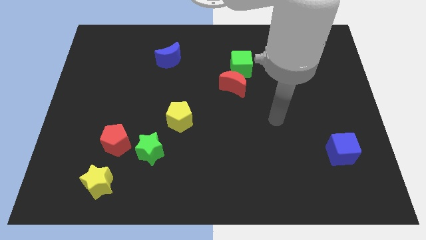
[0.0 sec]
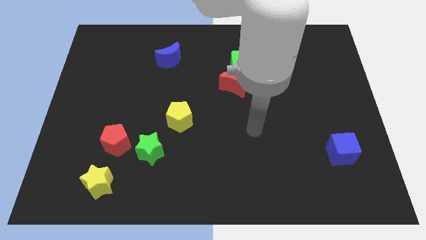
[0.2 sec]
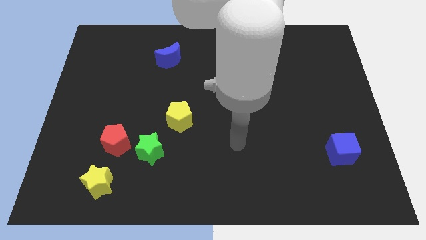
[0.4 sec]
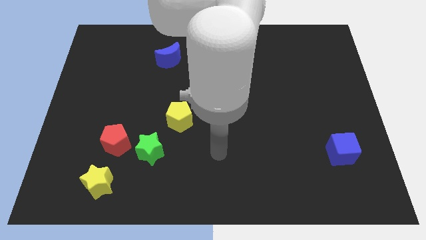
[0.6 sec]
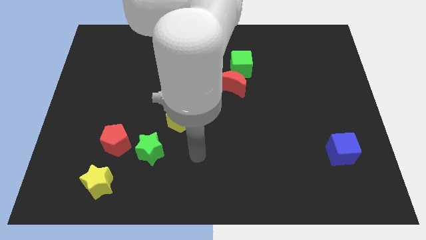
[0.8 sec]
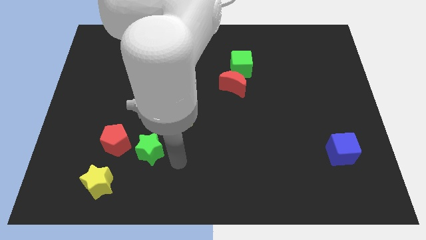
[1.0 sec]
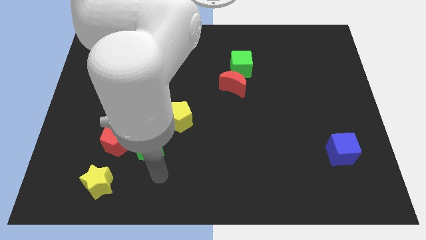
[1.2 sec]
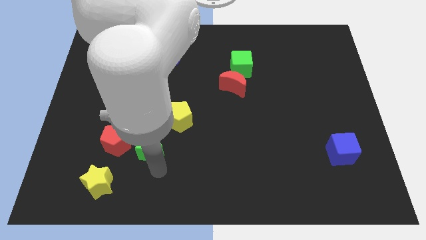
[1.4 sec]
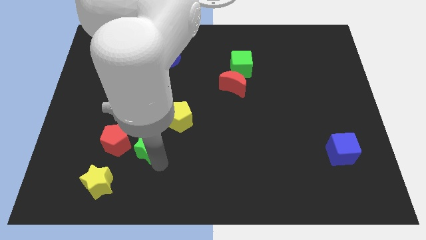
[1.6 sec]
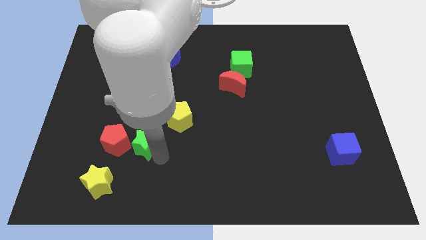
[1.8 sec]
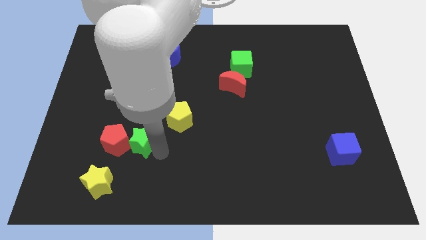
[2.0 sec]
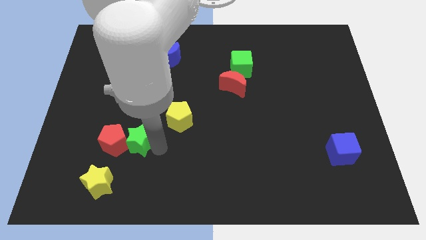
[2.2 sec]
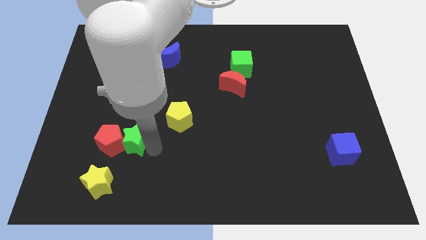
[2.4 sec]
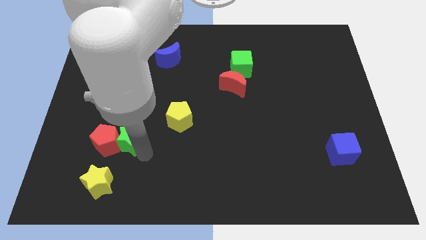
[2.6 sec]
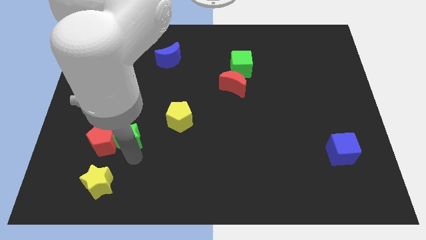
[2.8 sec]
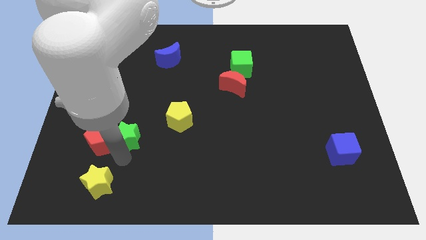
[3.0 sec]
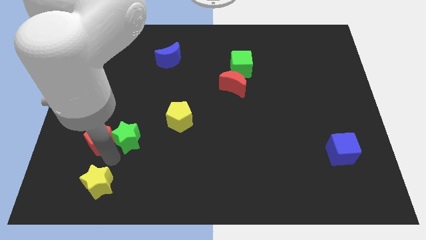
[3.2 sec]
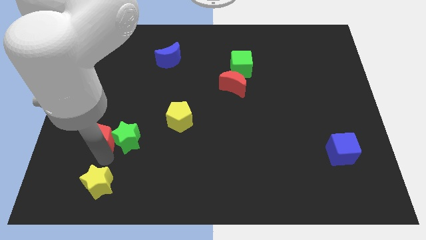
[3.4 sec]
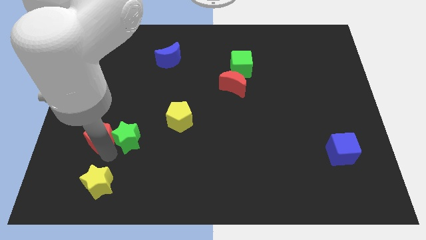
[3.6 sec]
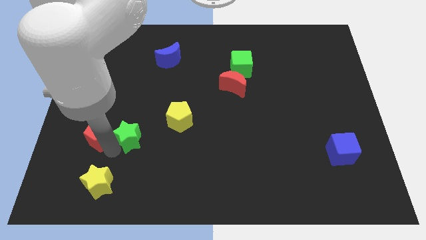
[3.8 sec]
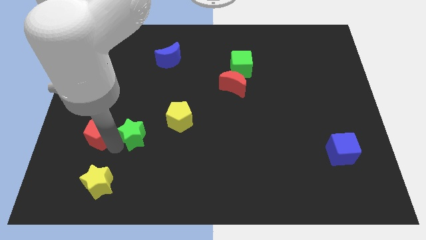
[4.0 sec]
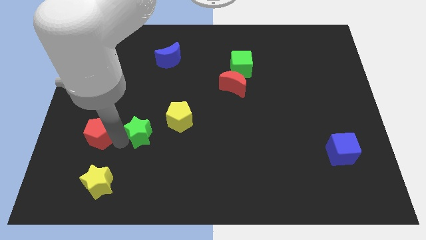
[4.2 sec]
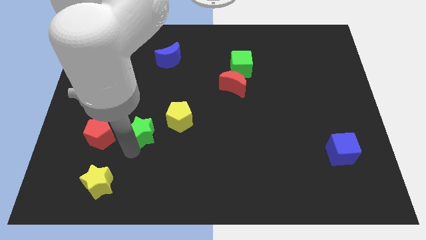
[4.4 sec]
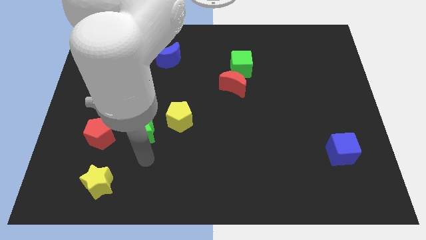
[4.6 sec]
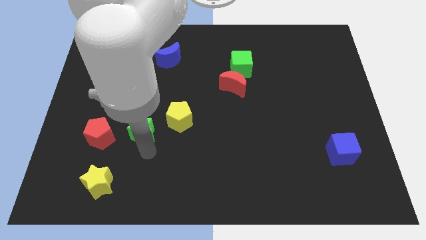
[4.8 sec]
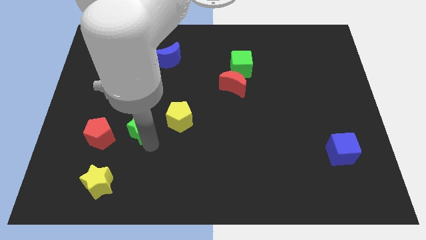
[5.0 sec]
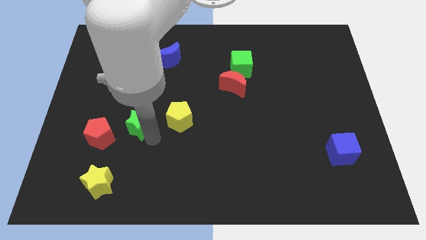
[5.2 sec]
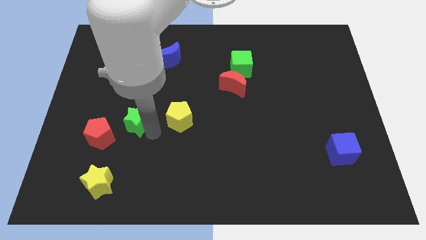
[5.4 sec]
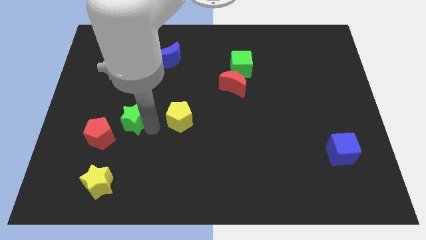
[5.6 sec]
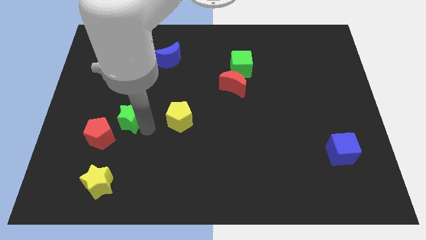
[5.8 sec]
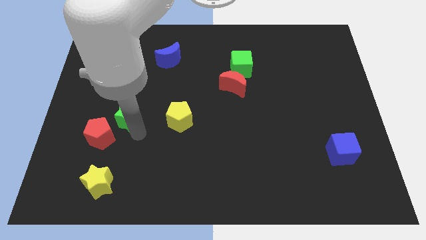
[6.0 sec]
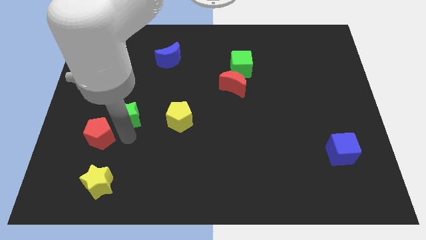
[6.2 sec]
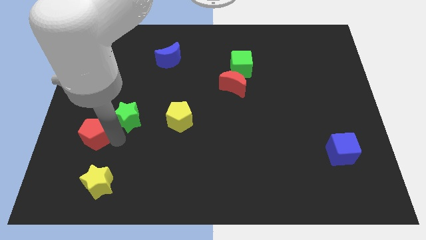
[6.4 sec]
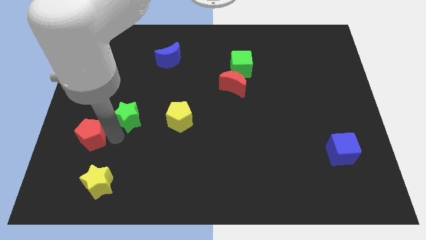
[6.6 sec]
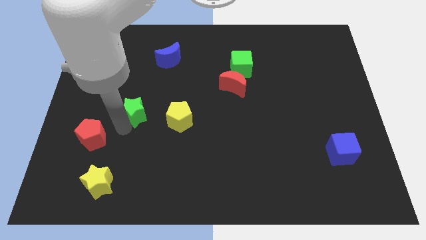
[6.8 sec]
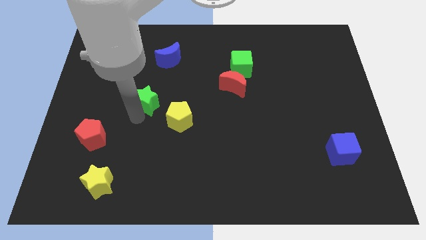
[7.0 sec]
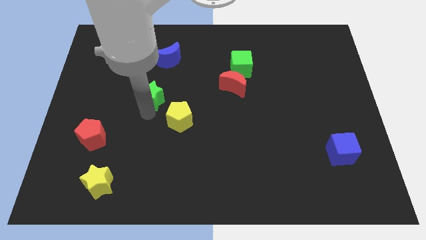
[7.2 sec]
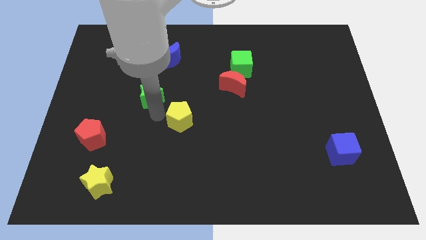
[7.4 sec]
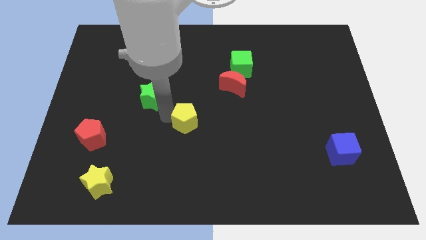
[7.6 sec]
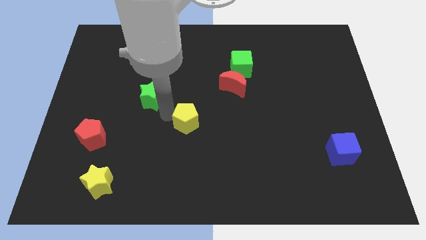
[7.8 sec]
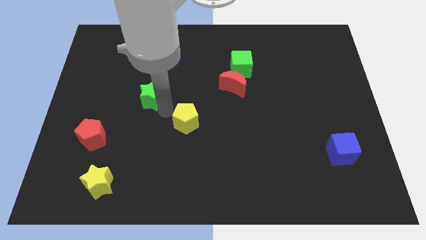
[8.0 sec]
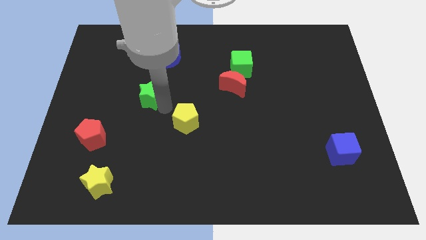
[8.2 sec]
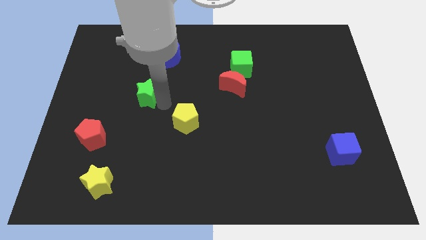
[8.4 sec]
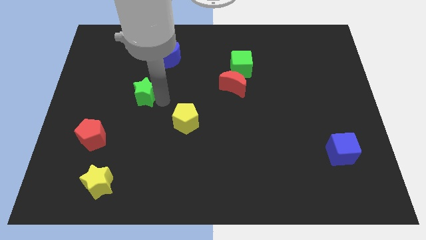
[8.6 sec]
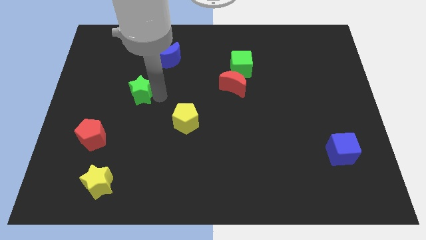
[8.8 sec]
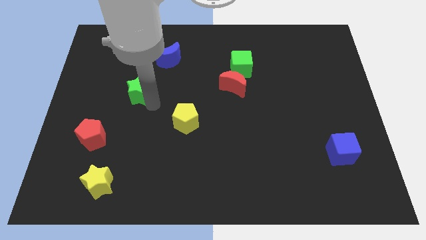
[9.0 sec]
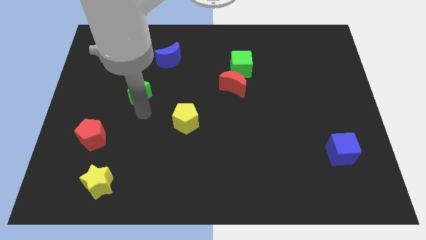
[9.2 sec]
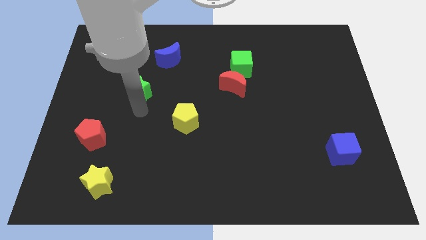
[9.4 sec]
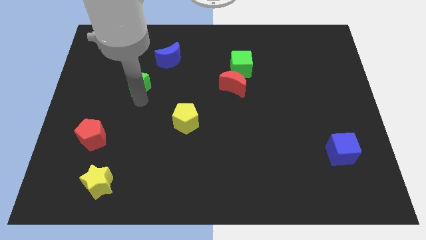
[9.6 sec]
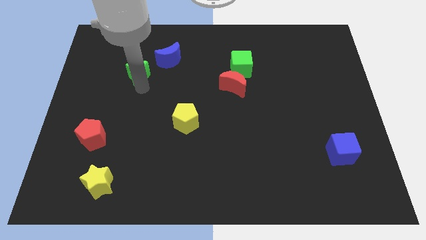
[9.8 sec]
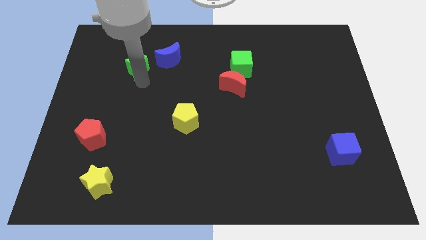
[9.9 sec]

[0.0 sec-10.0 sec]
push the green star just left of the blue moon

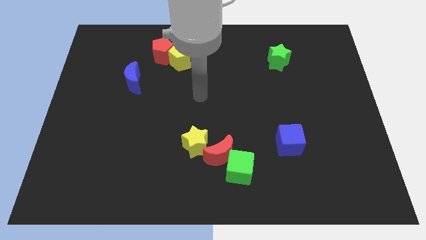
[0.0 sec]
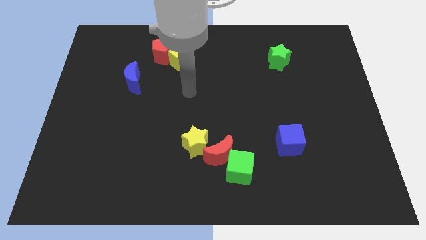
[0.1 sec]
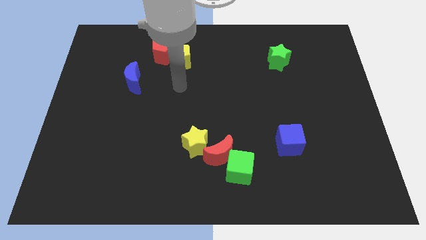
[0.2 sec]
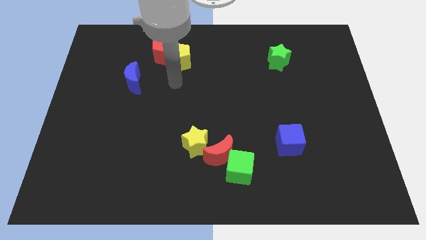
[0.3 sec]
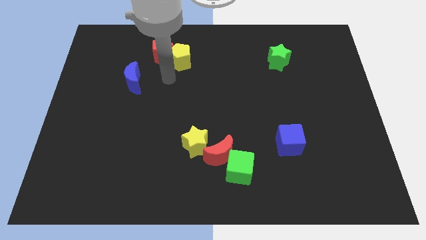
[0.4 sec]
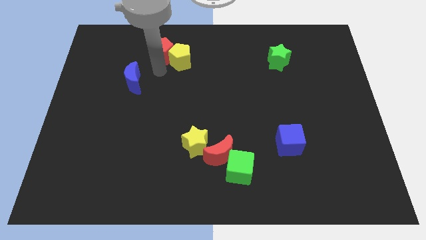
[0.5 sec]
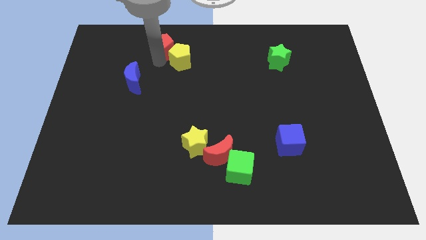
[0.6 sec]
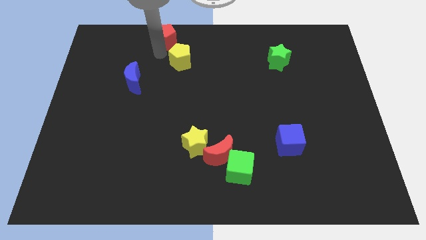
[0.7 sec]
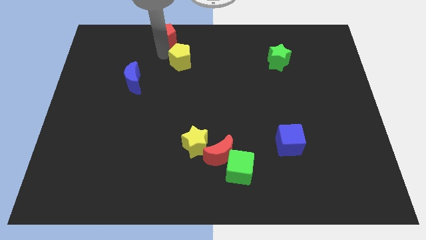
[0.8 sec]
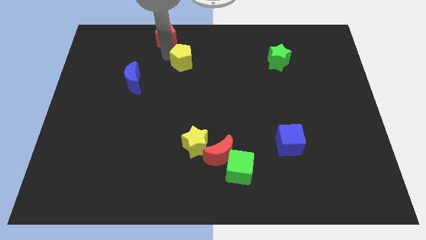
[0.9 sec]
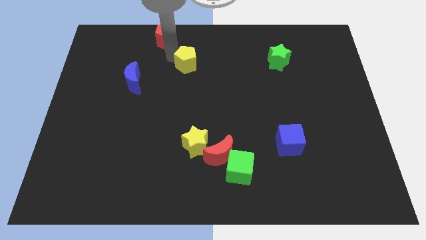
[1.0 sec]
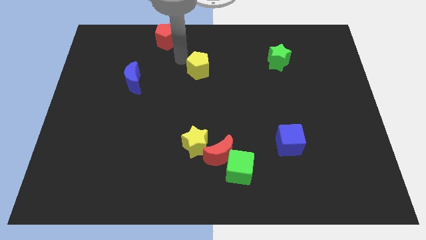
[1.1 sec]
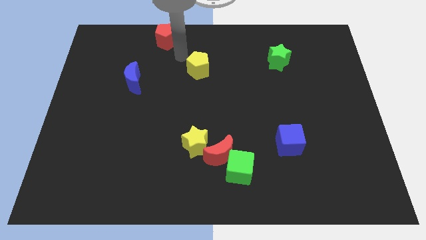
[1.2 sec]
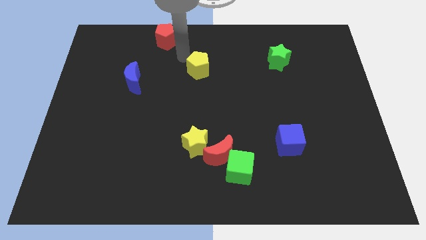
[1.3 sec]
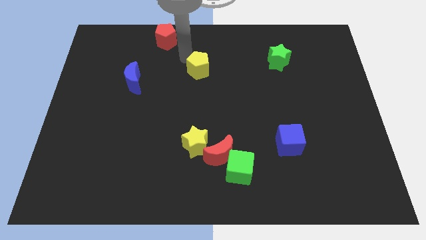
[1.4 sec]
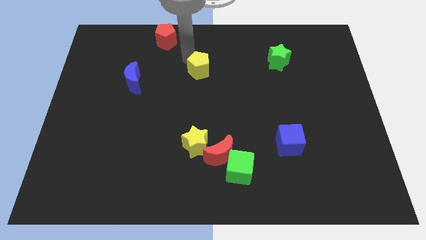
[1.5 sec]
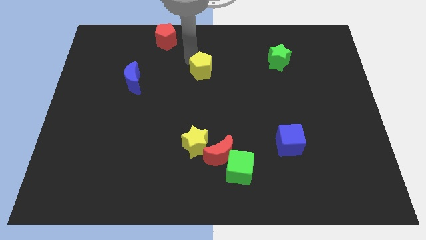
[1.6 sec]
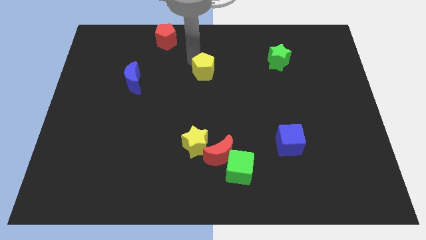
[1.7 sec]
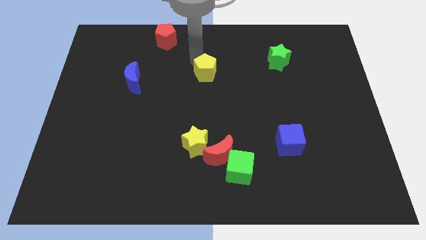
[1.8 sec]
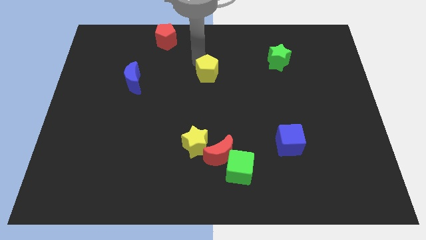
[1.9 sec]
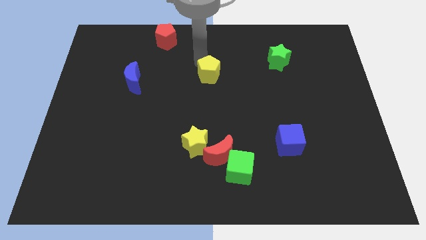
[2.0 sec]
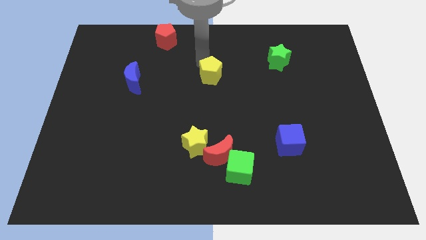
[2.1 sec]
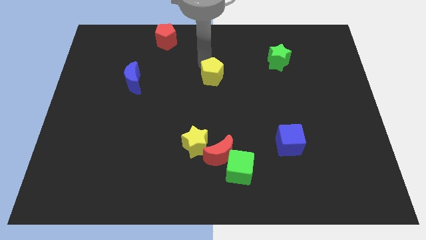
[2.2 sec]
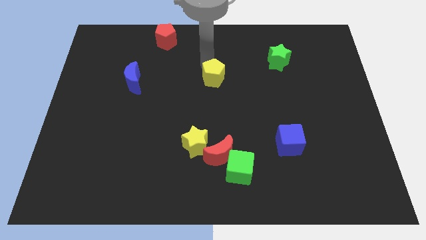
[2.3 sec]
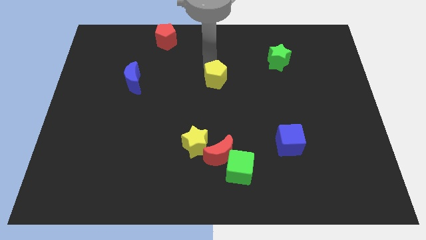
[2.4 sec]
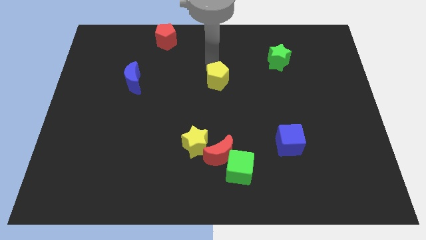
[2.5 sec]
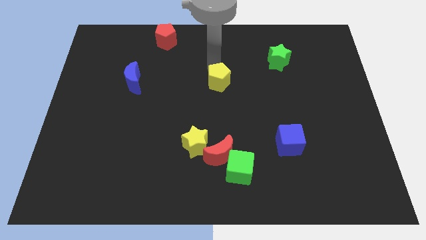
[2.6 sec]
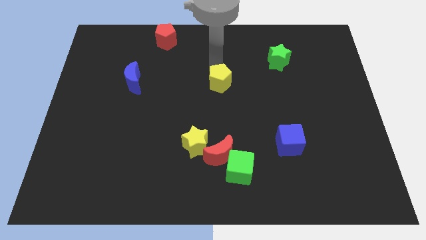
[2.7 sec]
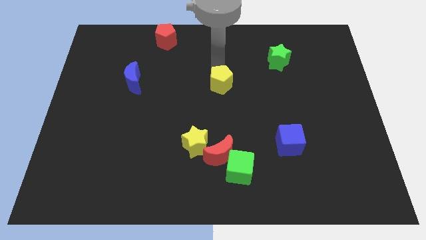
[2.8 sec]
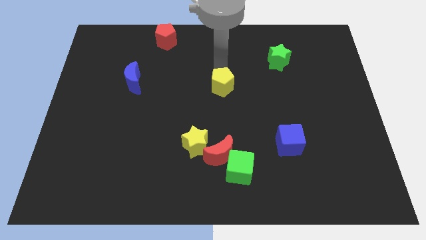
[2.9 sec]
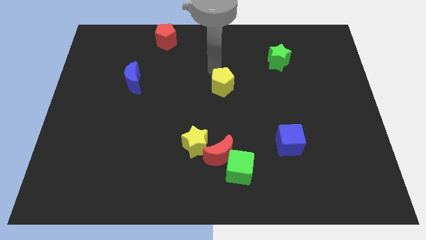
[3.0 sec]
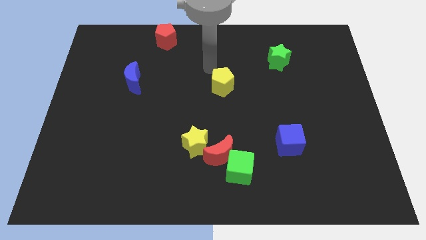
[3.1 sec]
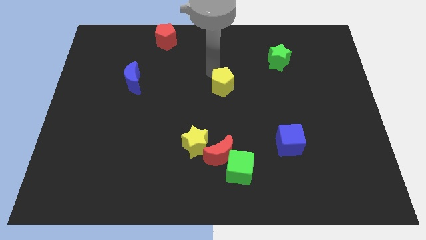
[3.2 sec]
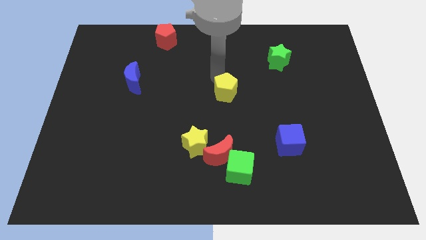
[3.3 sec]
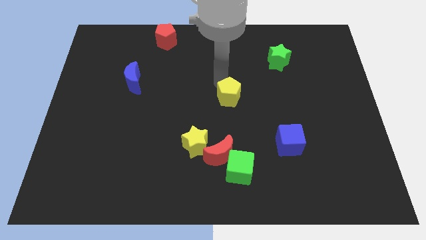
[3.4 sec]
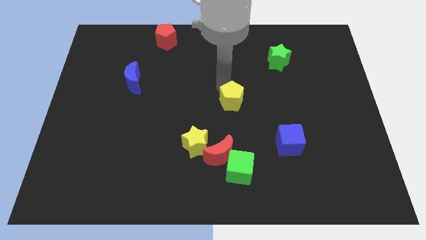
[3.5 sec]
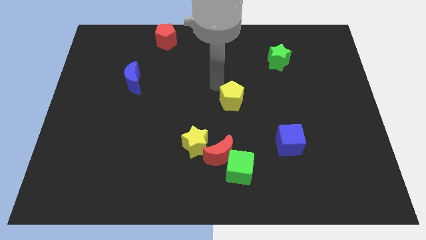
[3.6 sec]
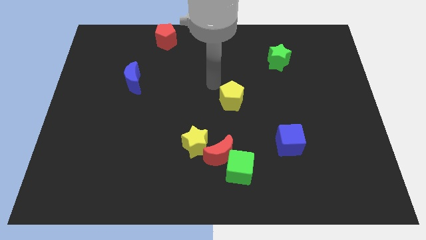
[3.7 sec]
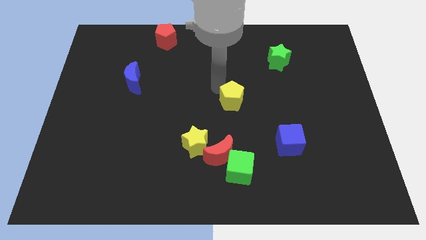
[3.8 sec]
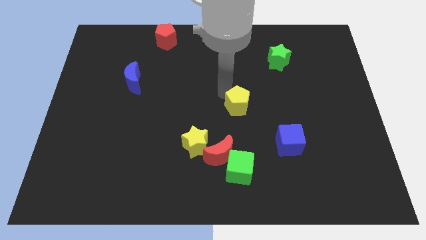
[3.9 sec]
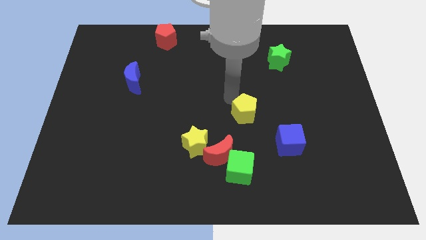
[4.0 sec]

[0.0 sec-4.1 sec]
slide the yellow pentagon to the top left of the blue cube
